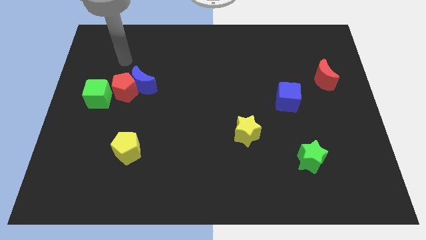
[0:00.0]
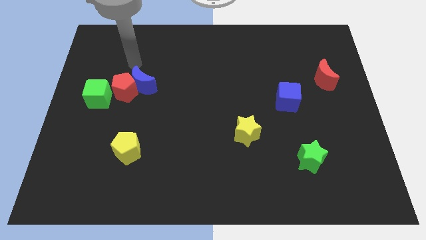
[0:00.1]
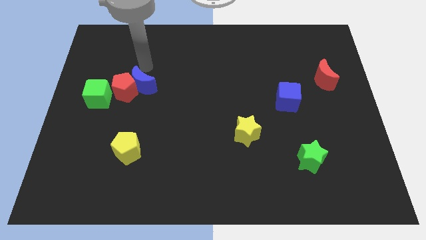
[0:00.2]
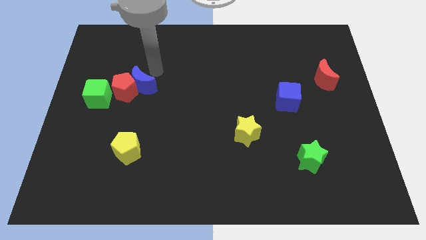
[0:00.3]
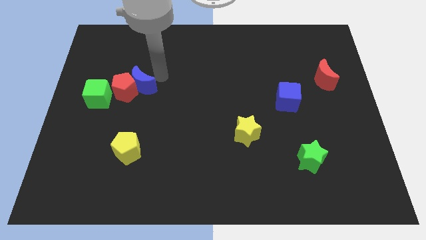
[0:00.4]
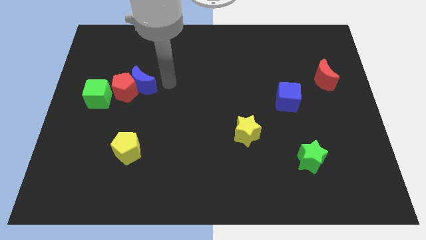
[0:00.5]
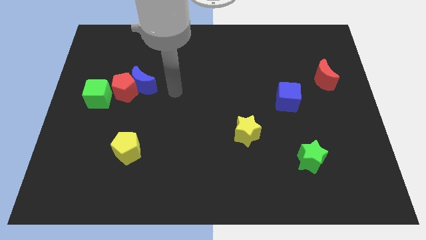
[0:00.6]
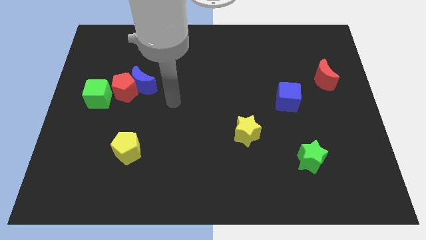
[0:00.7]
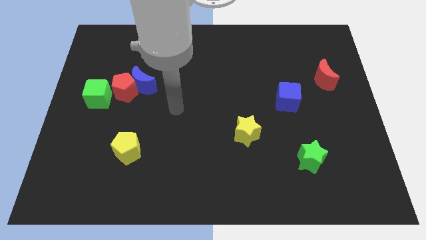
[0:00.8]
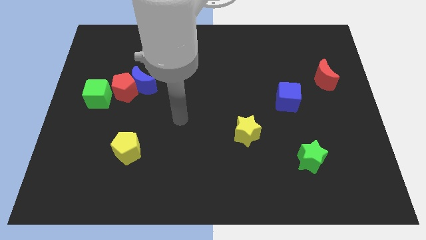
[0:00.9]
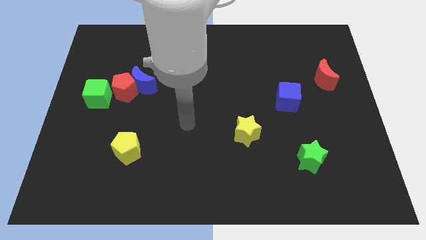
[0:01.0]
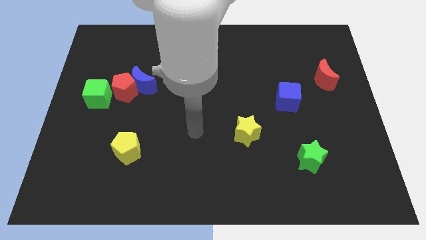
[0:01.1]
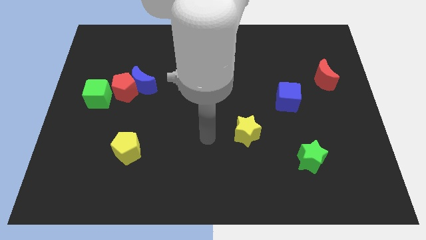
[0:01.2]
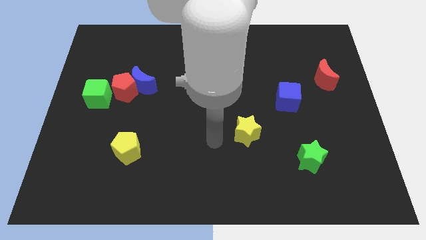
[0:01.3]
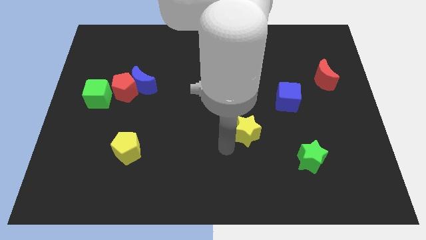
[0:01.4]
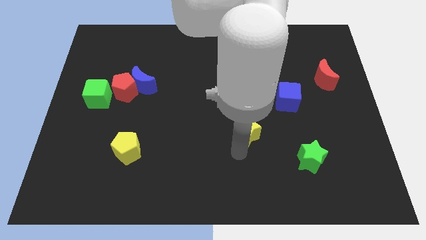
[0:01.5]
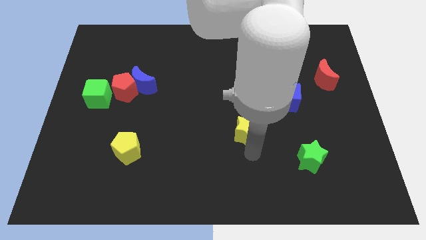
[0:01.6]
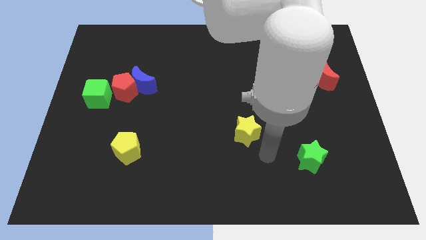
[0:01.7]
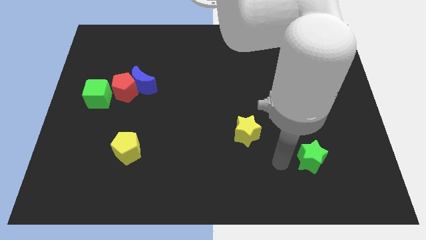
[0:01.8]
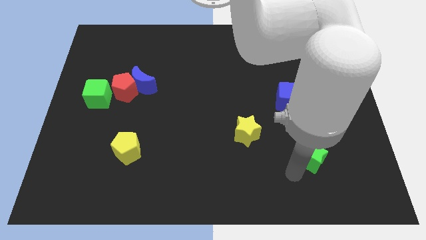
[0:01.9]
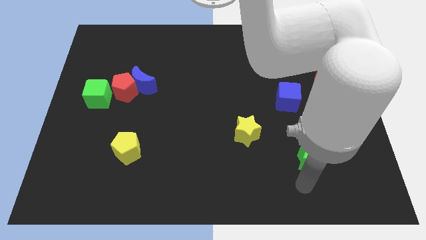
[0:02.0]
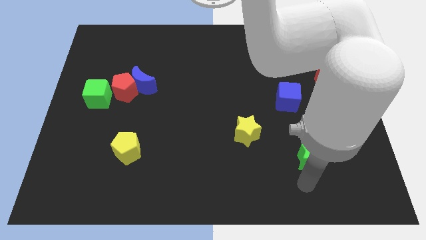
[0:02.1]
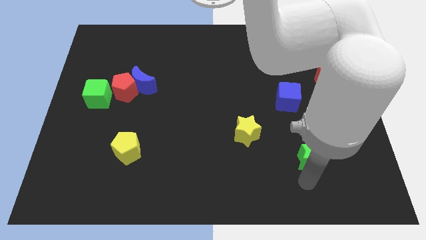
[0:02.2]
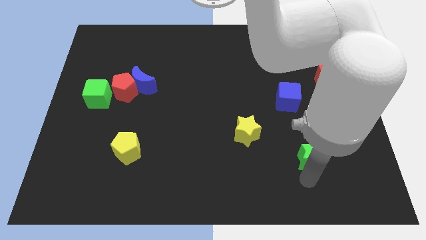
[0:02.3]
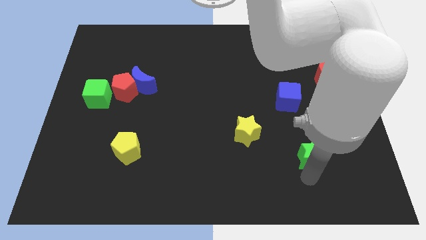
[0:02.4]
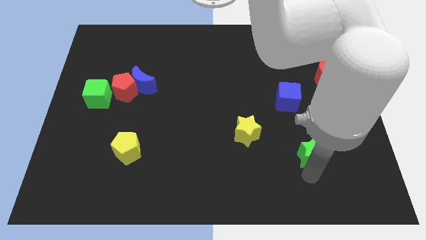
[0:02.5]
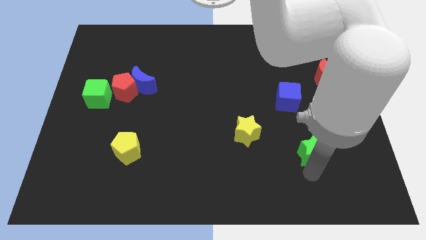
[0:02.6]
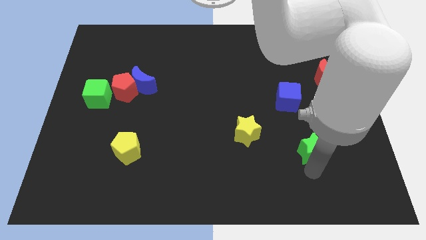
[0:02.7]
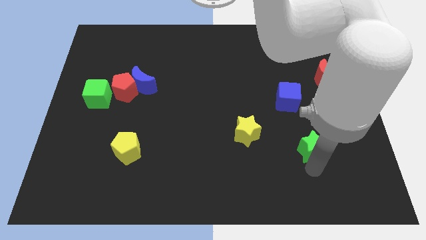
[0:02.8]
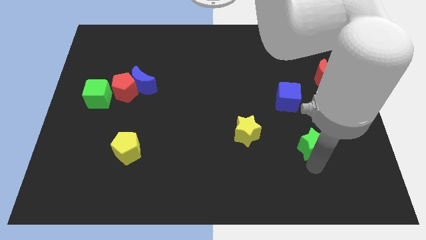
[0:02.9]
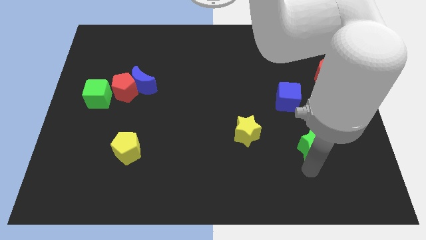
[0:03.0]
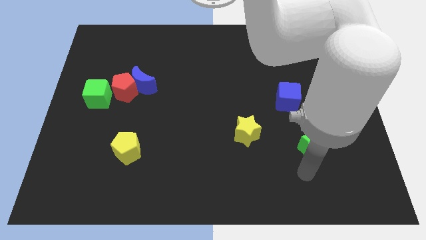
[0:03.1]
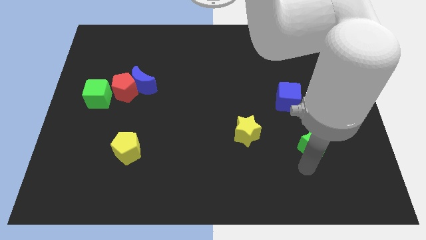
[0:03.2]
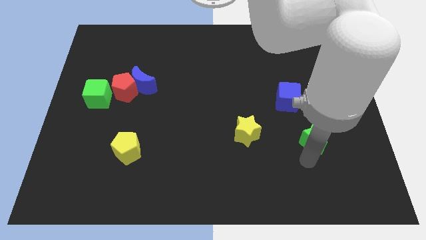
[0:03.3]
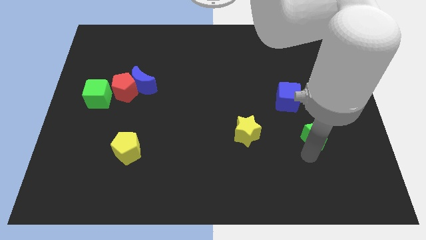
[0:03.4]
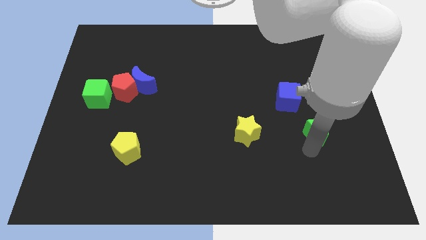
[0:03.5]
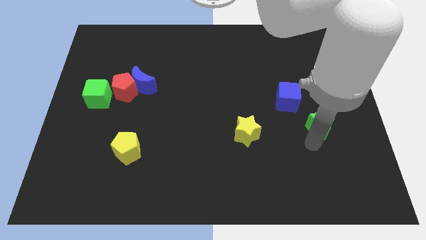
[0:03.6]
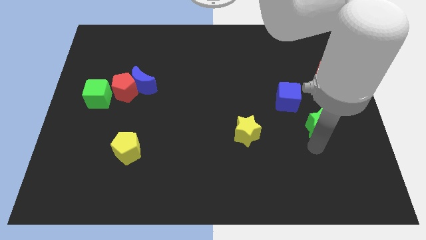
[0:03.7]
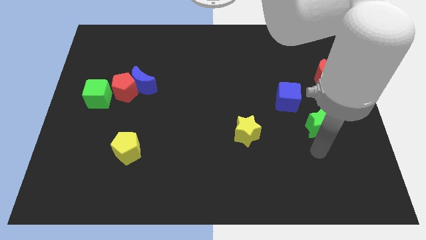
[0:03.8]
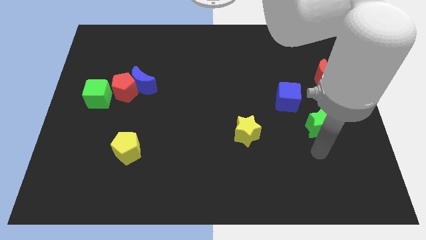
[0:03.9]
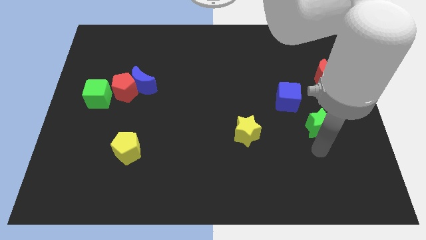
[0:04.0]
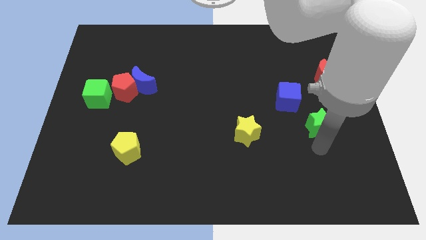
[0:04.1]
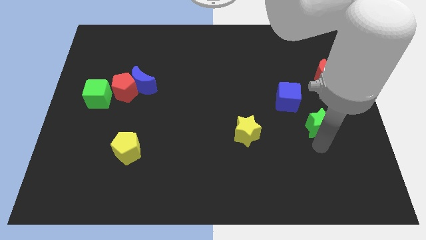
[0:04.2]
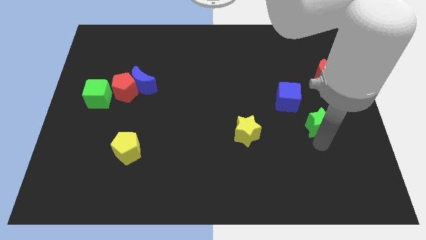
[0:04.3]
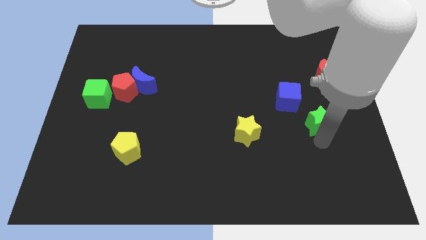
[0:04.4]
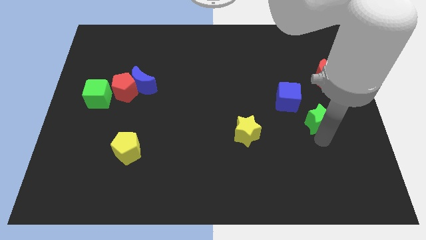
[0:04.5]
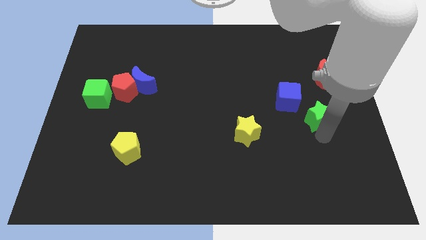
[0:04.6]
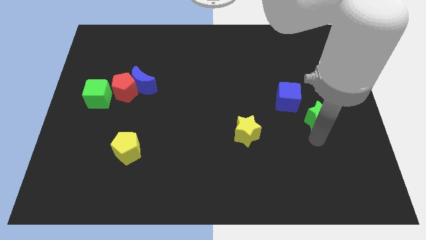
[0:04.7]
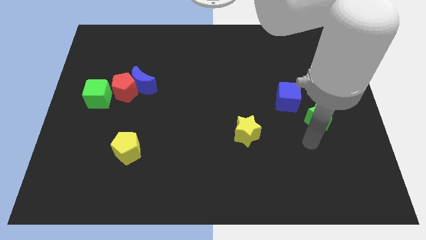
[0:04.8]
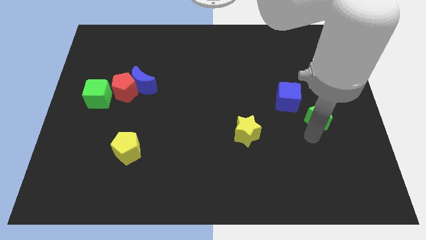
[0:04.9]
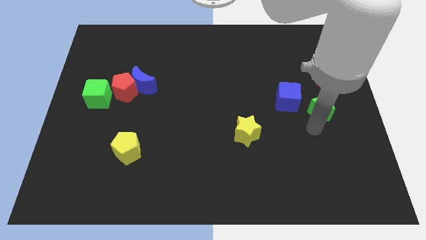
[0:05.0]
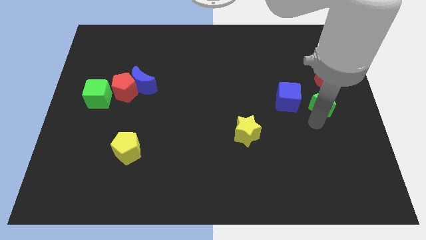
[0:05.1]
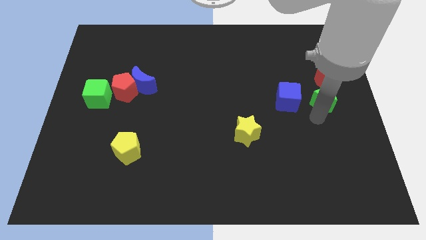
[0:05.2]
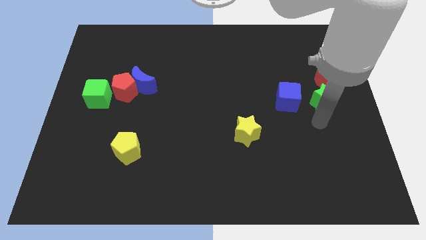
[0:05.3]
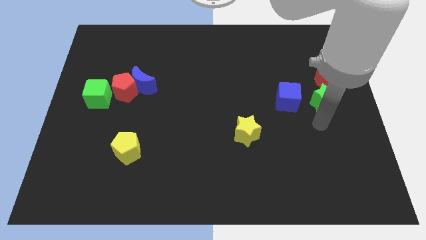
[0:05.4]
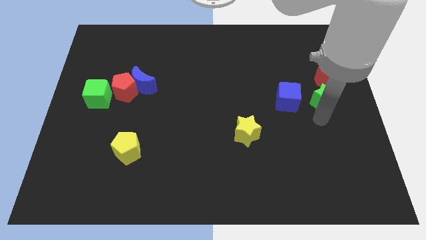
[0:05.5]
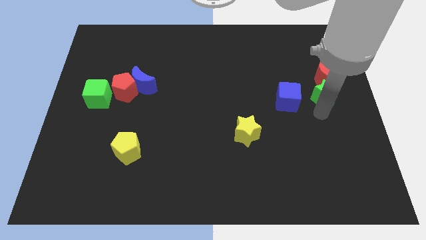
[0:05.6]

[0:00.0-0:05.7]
push the green star close to the red moon

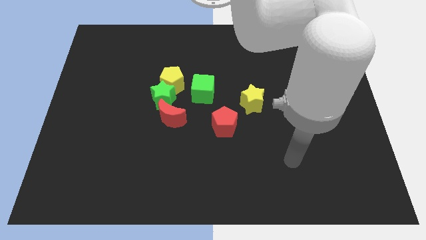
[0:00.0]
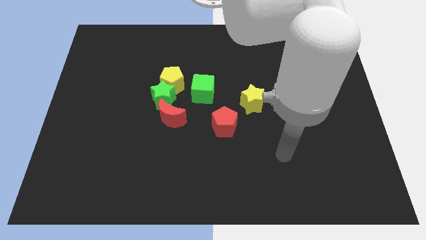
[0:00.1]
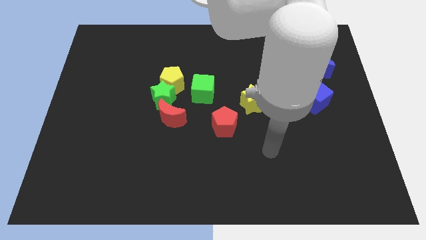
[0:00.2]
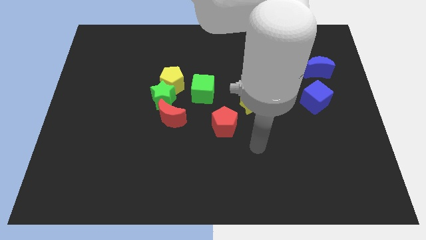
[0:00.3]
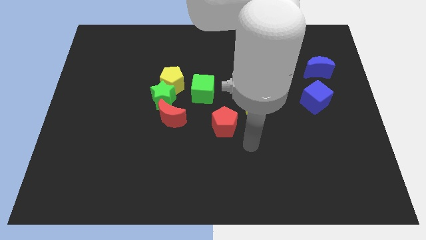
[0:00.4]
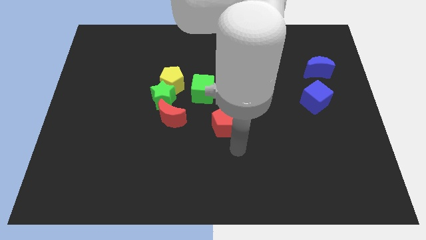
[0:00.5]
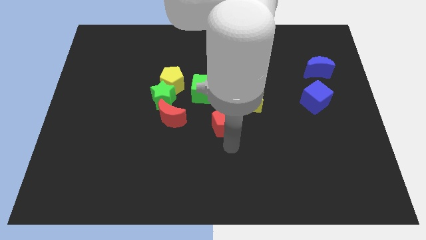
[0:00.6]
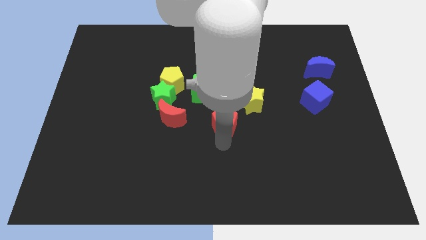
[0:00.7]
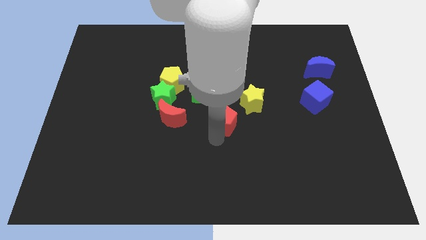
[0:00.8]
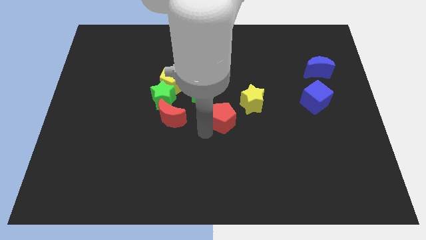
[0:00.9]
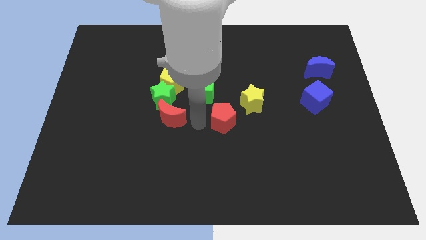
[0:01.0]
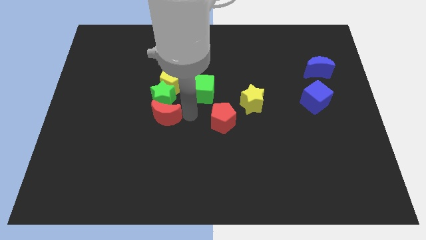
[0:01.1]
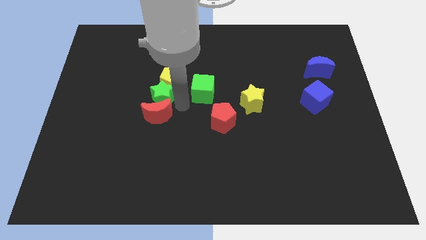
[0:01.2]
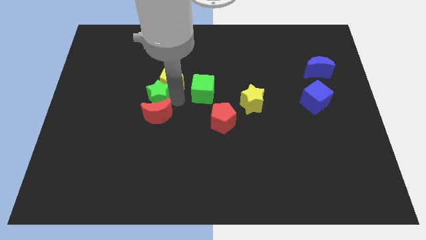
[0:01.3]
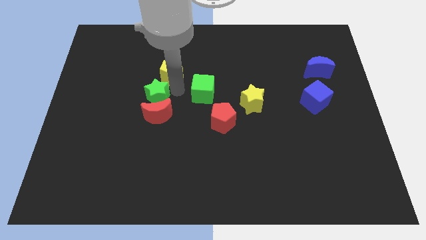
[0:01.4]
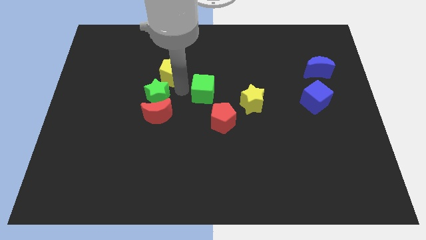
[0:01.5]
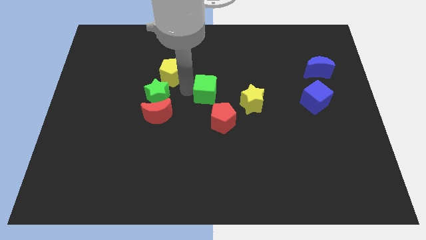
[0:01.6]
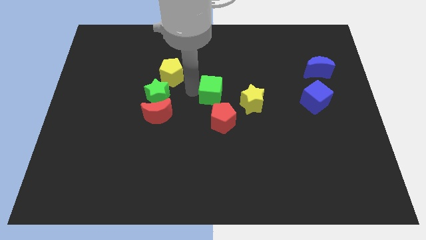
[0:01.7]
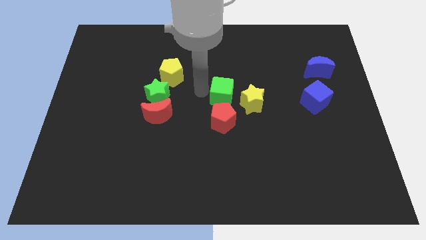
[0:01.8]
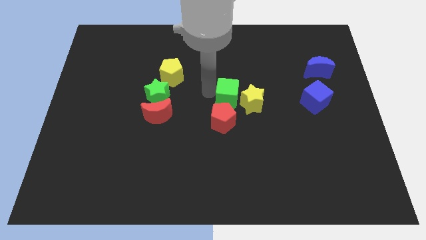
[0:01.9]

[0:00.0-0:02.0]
put the green cube to the yellow star
